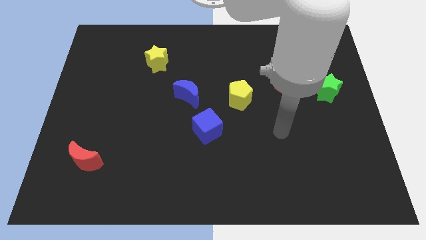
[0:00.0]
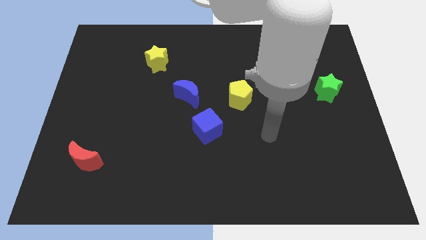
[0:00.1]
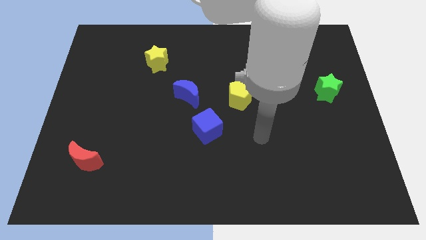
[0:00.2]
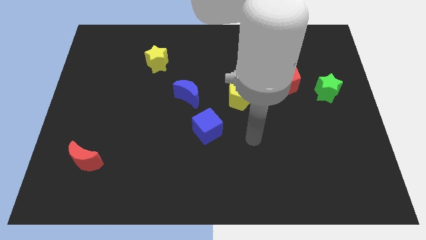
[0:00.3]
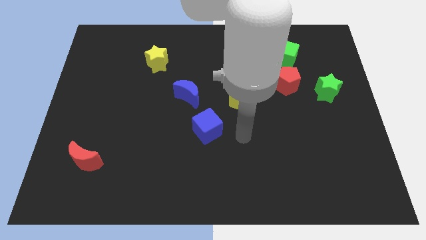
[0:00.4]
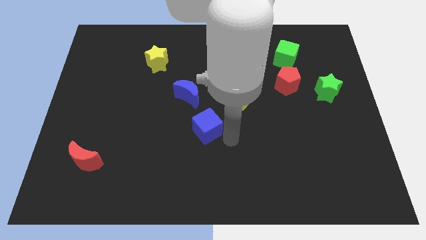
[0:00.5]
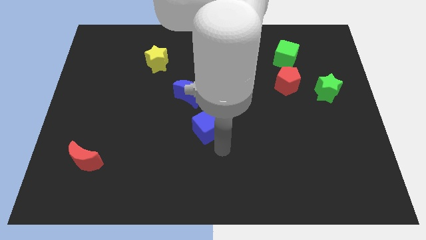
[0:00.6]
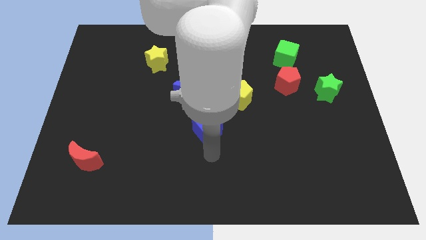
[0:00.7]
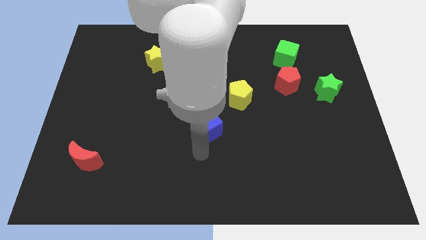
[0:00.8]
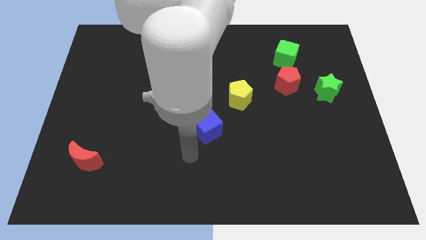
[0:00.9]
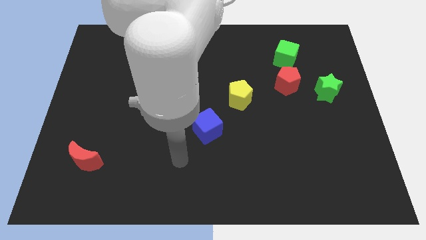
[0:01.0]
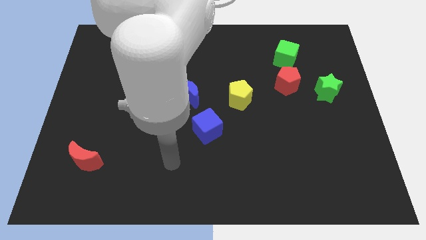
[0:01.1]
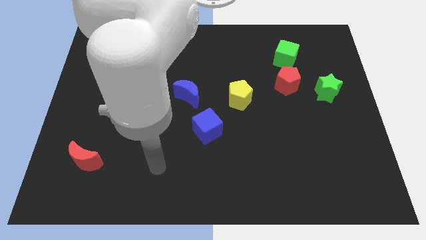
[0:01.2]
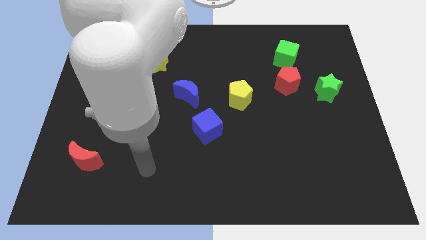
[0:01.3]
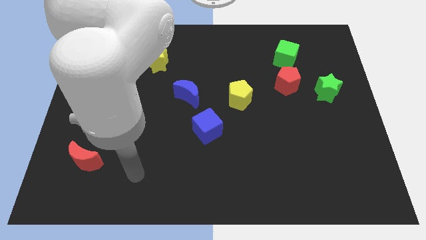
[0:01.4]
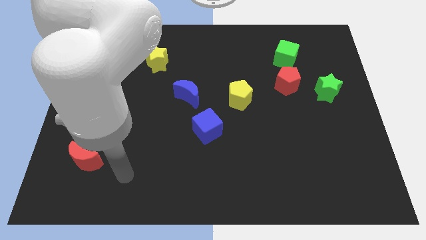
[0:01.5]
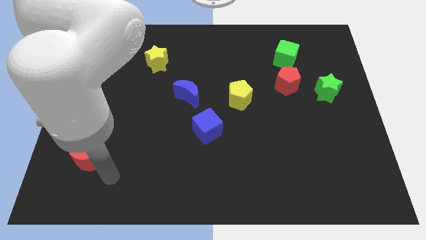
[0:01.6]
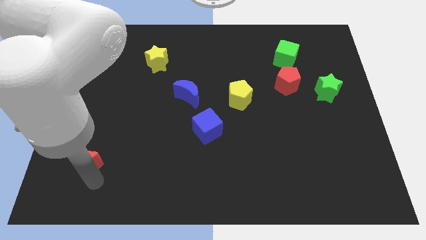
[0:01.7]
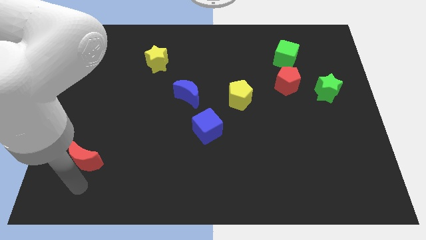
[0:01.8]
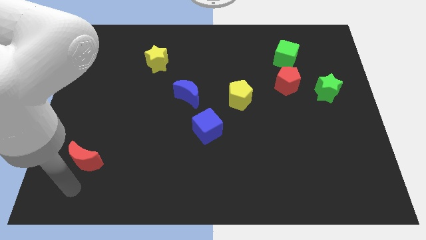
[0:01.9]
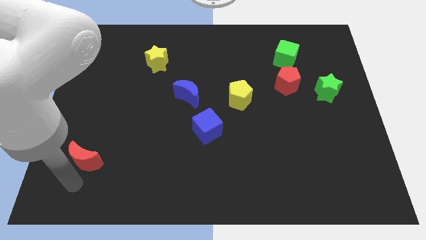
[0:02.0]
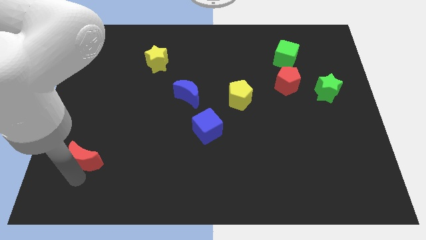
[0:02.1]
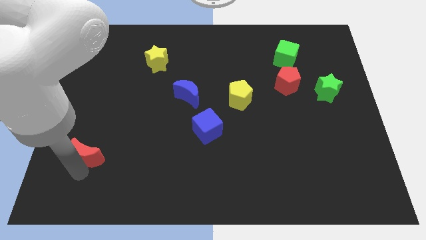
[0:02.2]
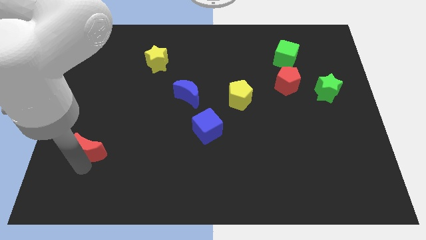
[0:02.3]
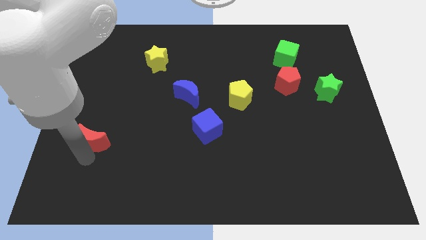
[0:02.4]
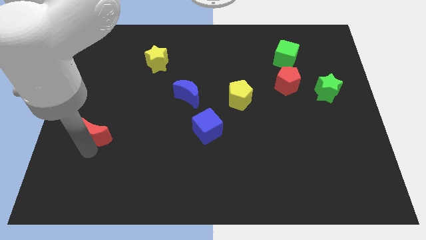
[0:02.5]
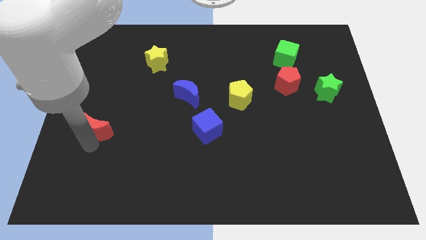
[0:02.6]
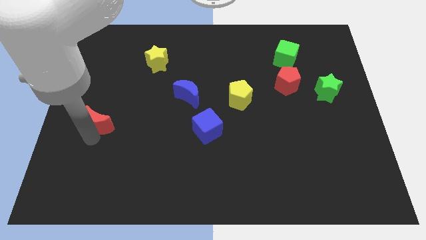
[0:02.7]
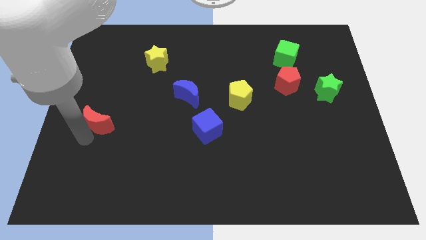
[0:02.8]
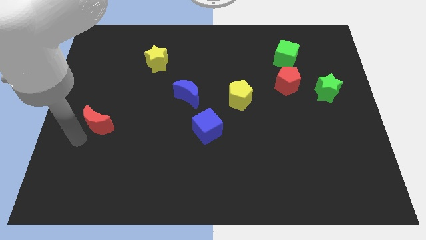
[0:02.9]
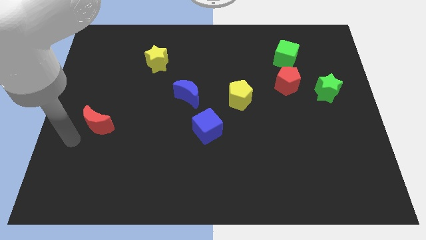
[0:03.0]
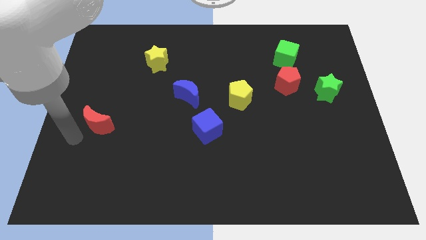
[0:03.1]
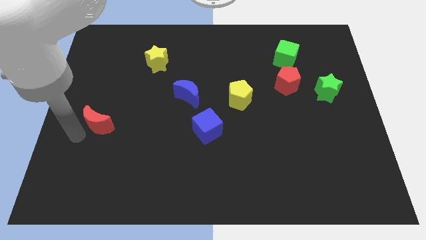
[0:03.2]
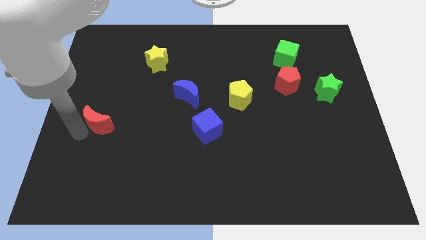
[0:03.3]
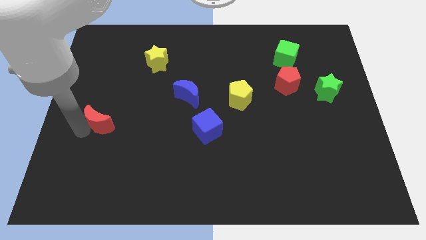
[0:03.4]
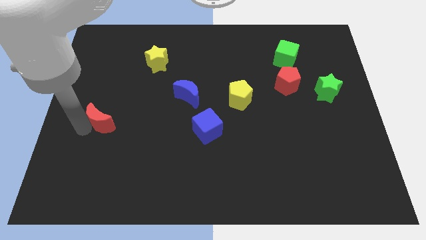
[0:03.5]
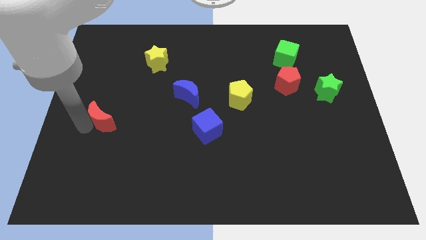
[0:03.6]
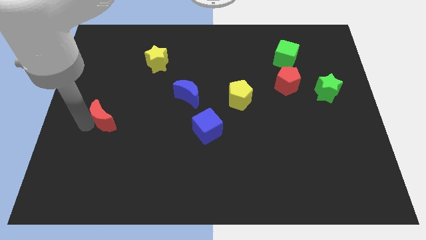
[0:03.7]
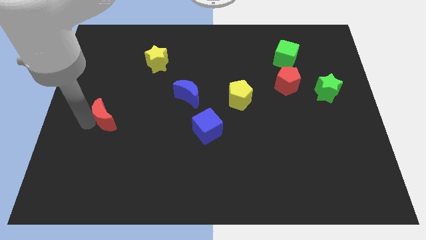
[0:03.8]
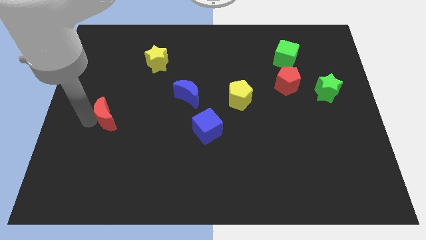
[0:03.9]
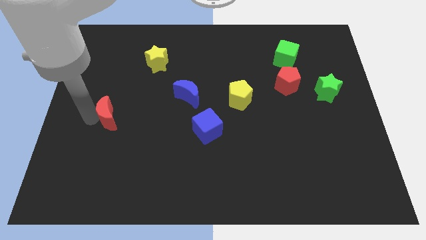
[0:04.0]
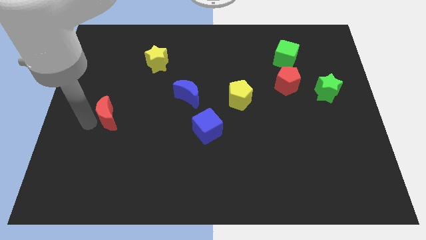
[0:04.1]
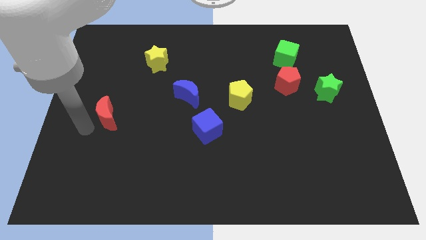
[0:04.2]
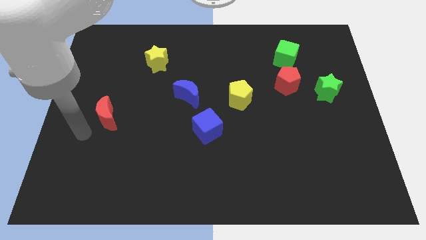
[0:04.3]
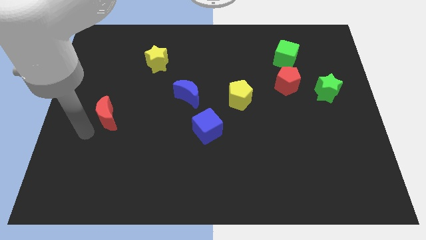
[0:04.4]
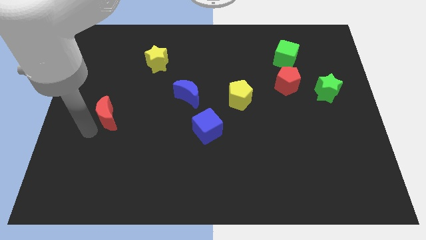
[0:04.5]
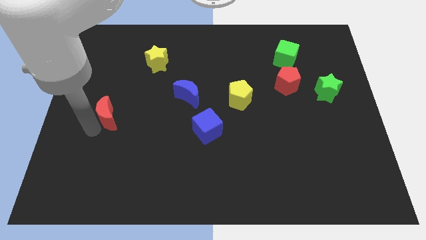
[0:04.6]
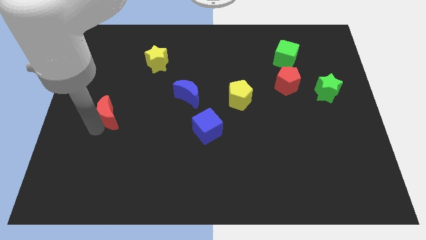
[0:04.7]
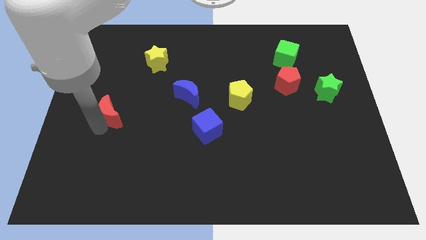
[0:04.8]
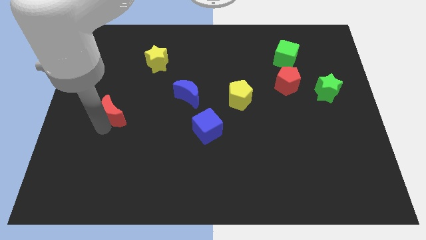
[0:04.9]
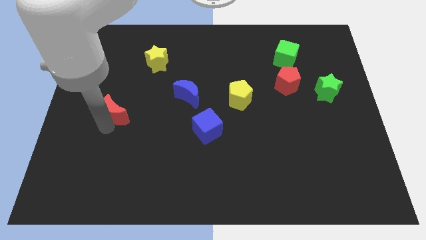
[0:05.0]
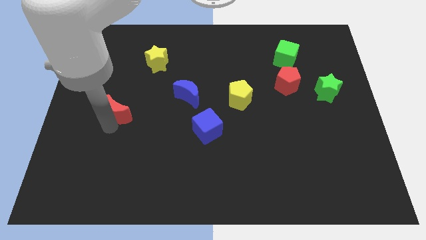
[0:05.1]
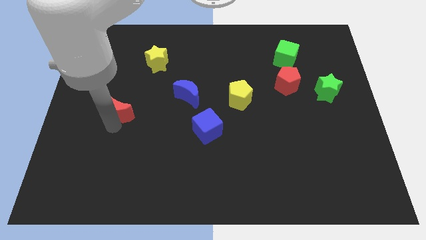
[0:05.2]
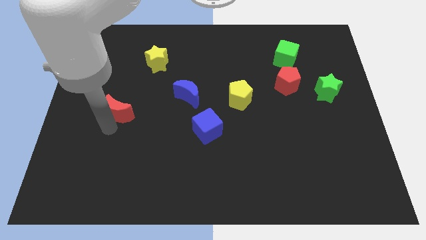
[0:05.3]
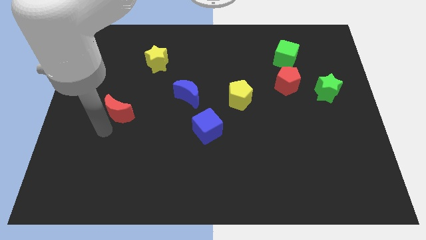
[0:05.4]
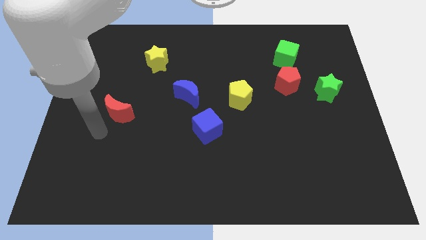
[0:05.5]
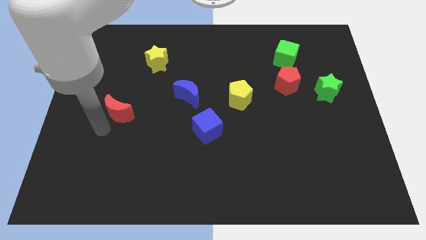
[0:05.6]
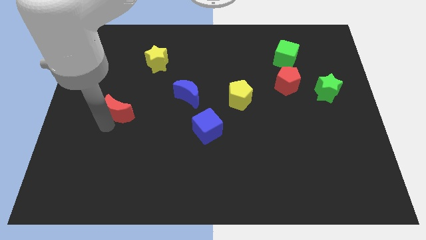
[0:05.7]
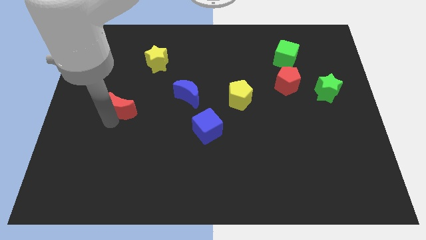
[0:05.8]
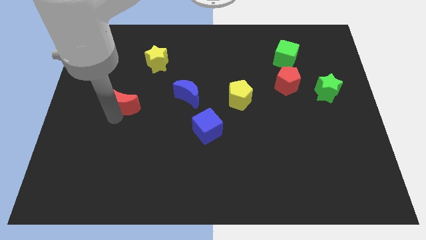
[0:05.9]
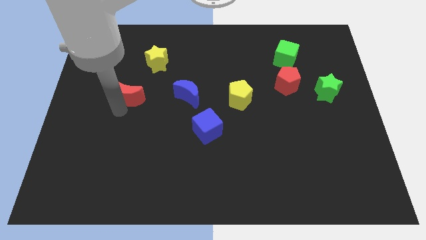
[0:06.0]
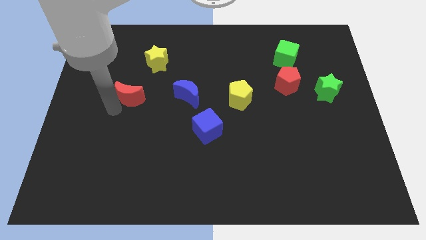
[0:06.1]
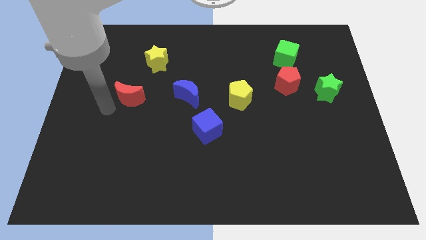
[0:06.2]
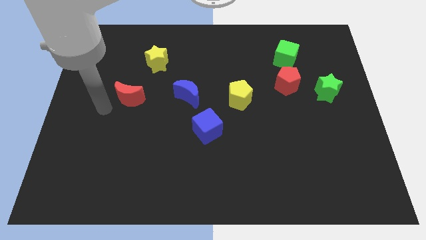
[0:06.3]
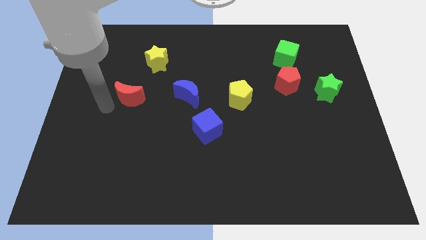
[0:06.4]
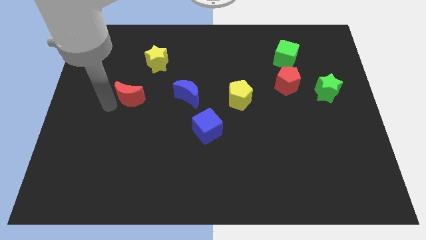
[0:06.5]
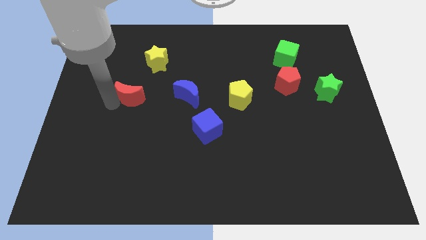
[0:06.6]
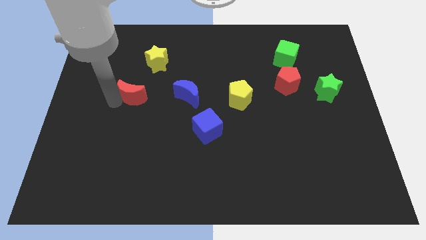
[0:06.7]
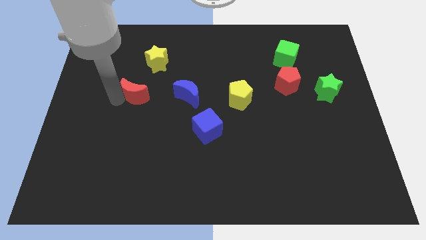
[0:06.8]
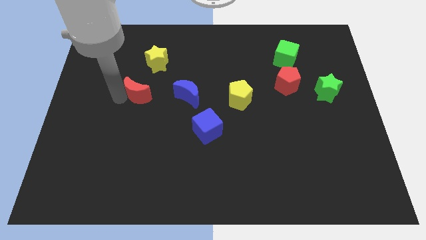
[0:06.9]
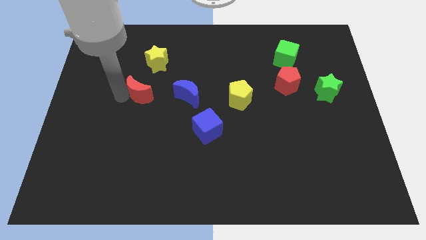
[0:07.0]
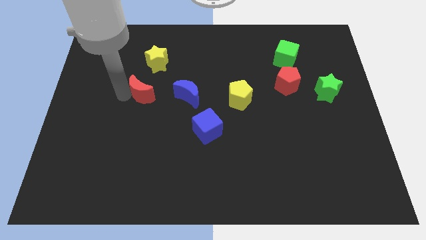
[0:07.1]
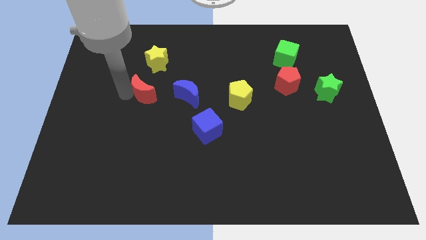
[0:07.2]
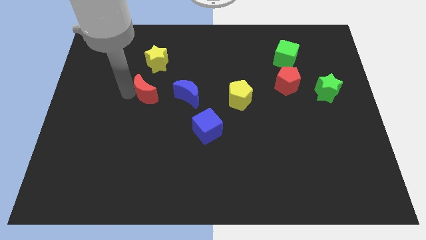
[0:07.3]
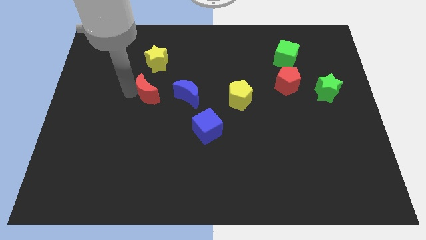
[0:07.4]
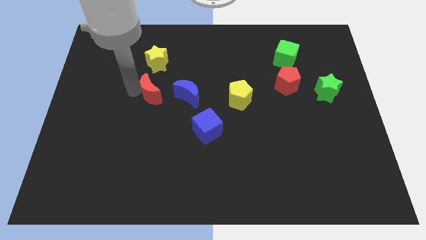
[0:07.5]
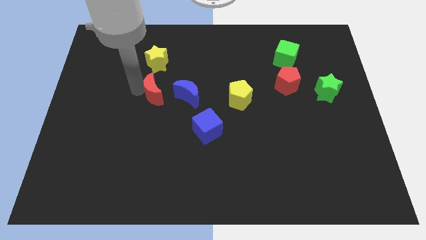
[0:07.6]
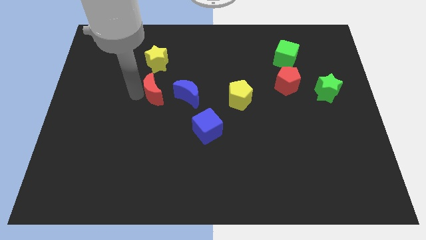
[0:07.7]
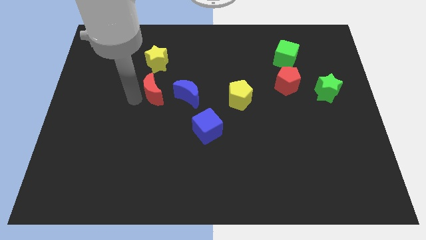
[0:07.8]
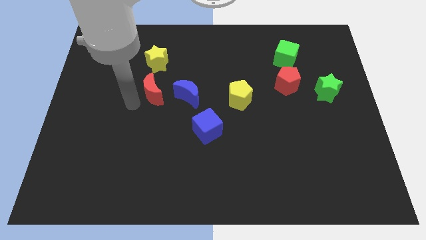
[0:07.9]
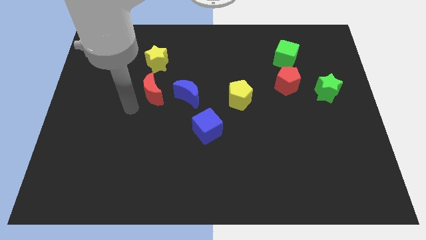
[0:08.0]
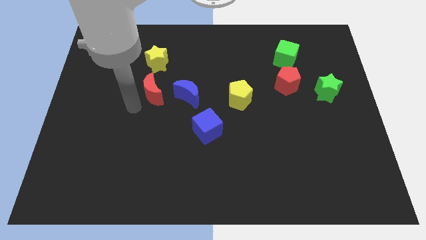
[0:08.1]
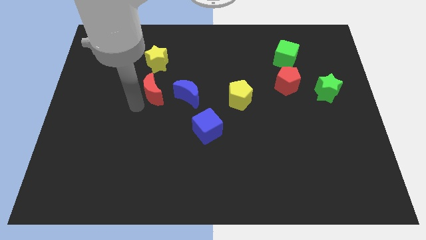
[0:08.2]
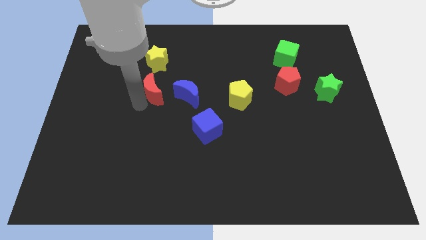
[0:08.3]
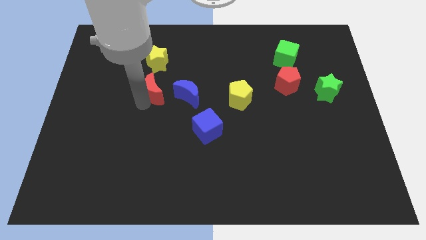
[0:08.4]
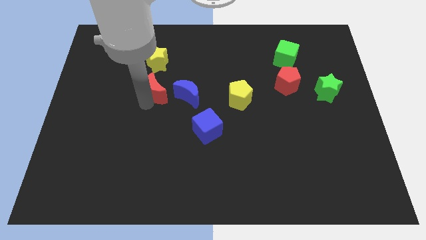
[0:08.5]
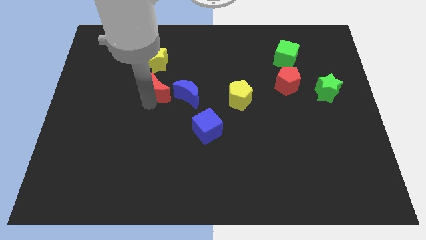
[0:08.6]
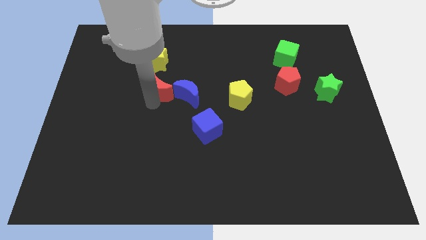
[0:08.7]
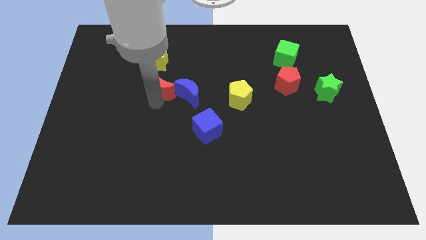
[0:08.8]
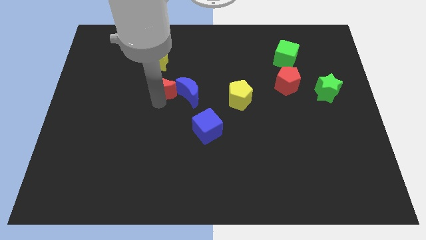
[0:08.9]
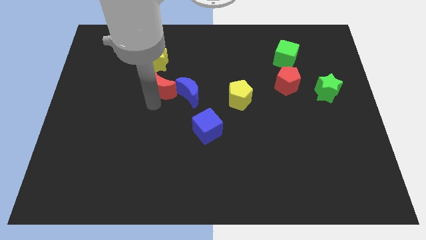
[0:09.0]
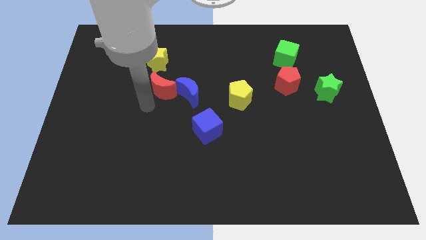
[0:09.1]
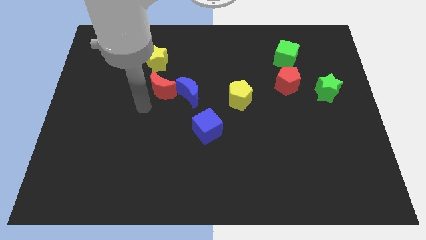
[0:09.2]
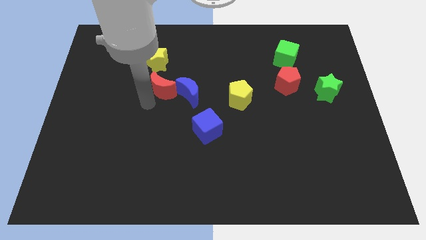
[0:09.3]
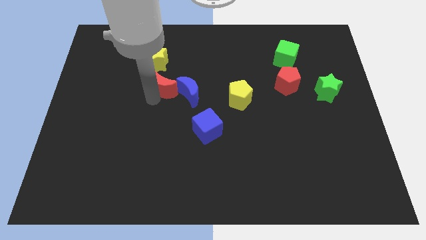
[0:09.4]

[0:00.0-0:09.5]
push the red moon to the bottom right of the yellow star
